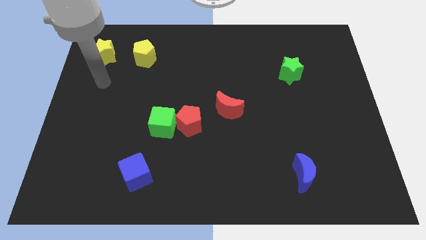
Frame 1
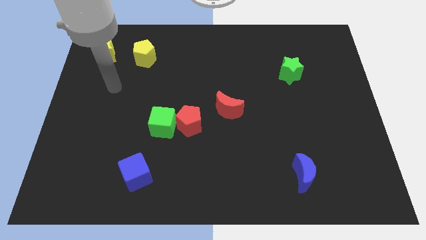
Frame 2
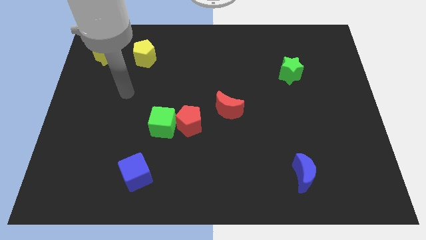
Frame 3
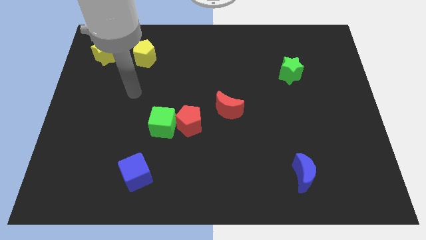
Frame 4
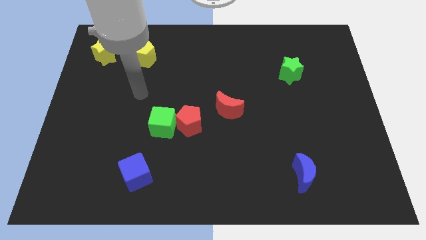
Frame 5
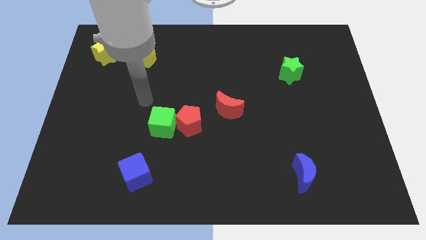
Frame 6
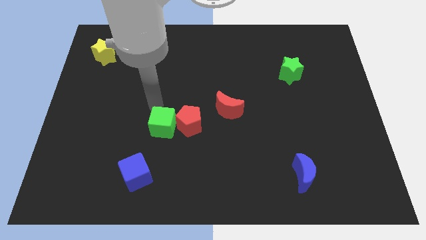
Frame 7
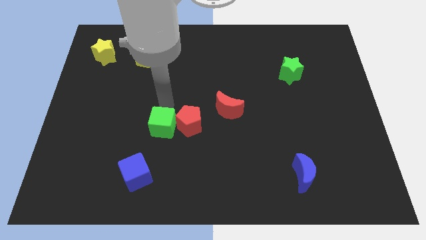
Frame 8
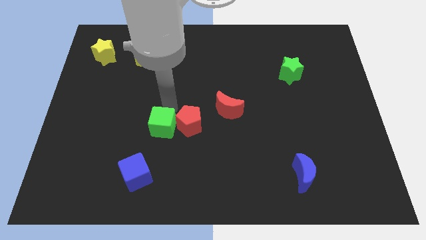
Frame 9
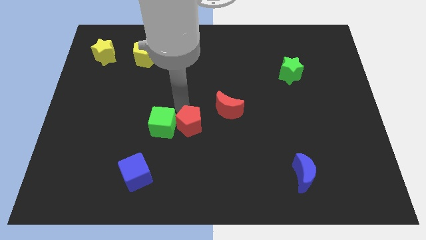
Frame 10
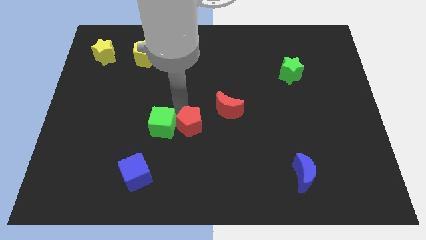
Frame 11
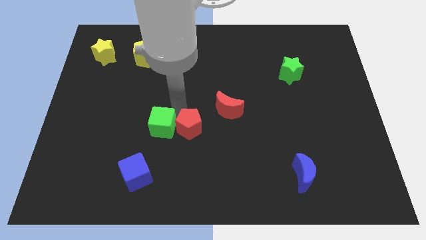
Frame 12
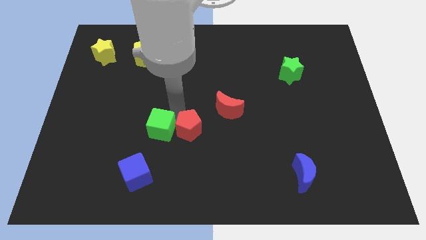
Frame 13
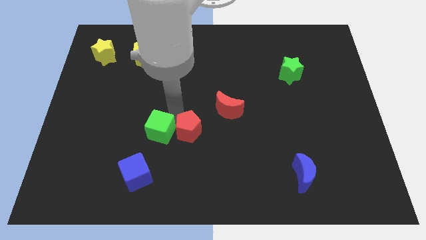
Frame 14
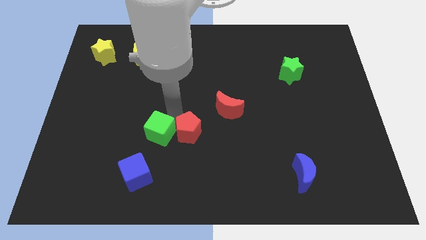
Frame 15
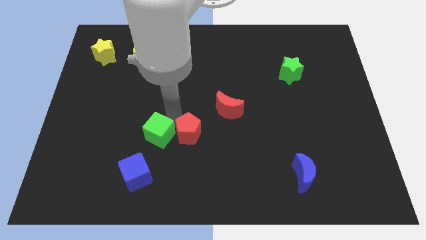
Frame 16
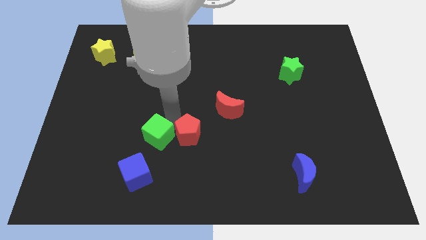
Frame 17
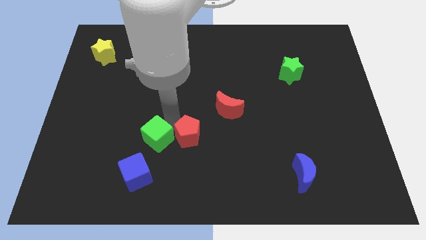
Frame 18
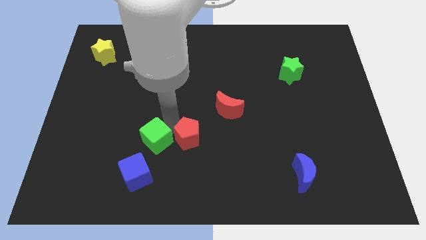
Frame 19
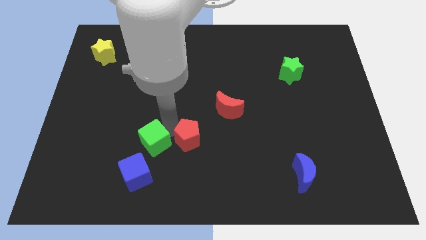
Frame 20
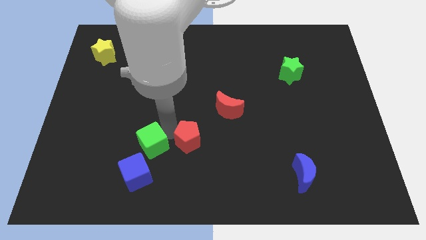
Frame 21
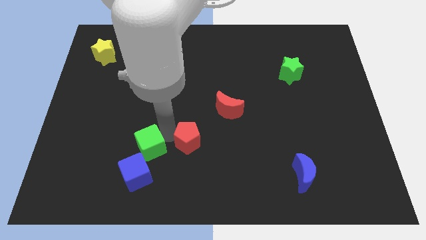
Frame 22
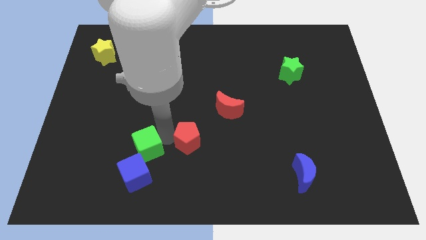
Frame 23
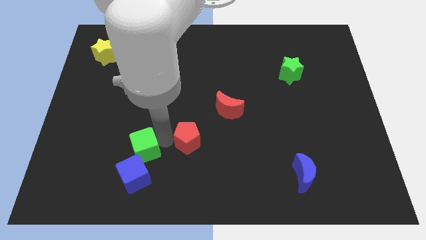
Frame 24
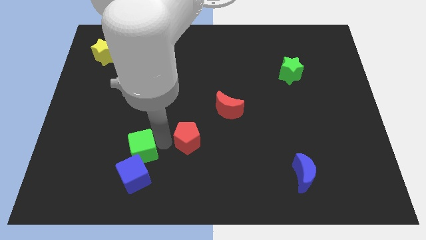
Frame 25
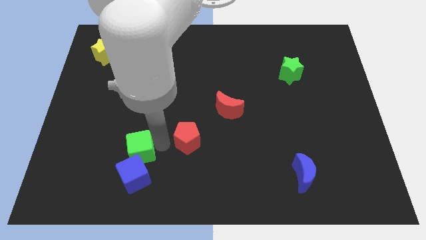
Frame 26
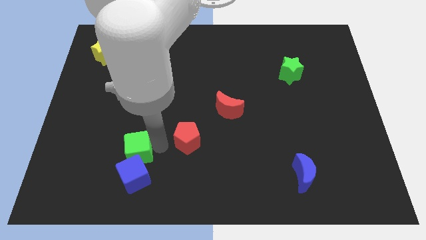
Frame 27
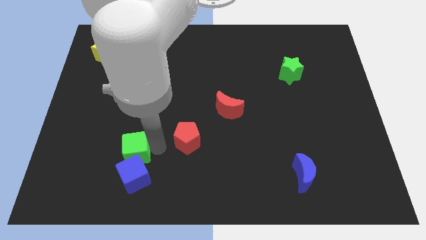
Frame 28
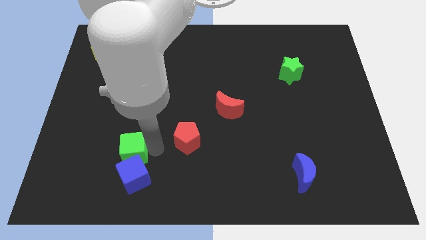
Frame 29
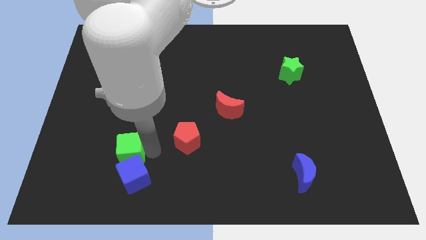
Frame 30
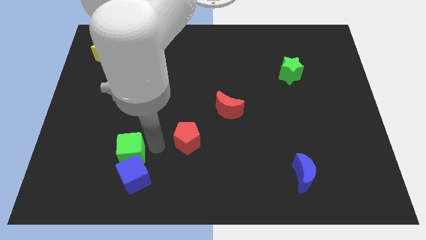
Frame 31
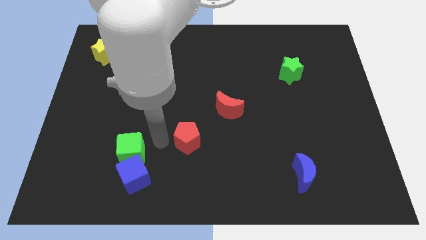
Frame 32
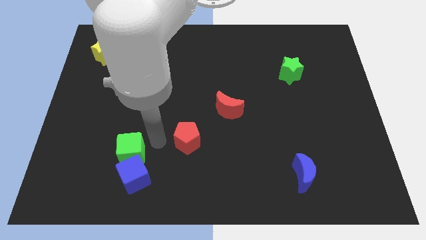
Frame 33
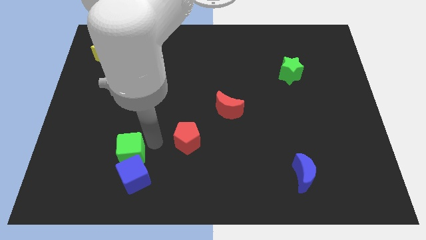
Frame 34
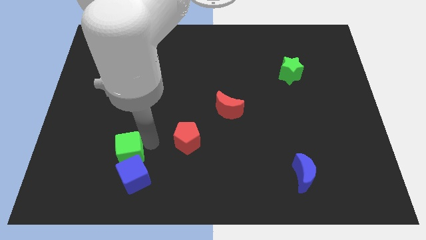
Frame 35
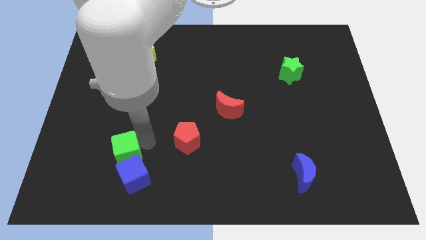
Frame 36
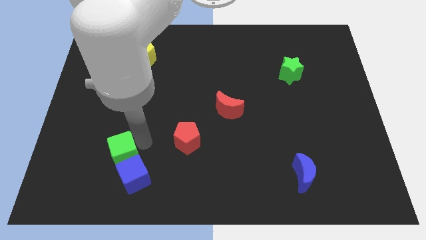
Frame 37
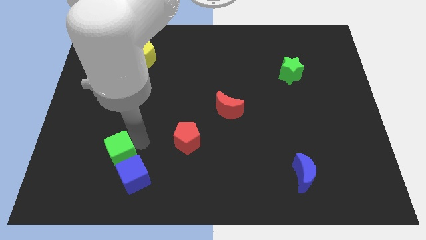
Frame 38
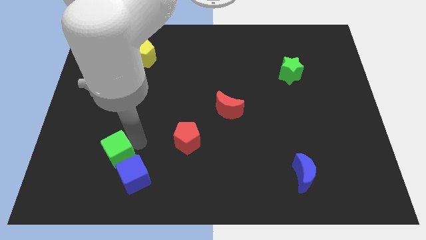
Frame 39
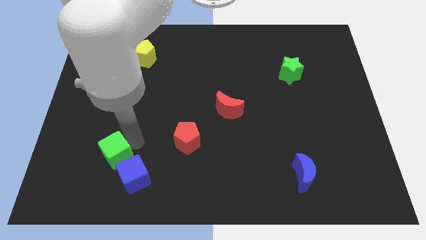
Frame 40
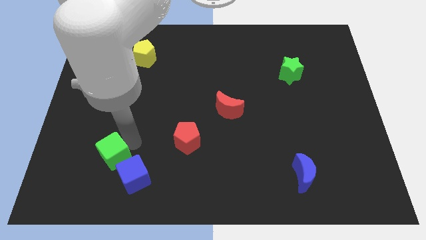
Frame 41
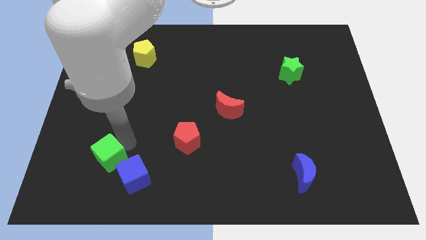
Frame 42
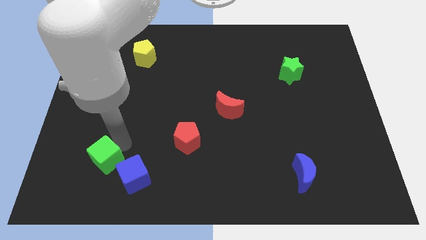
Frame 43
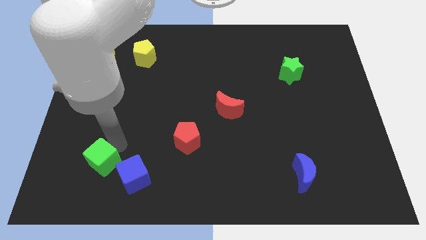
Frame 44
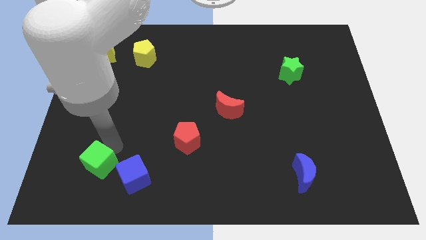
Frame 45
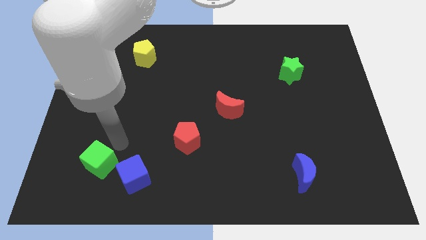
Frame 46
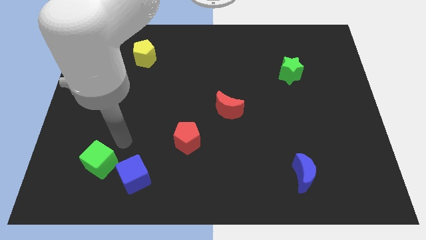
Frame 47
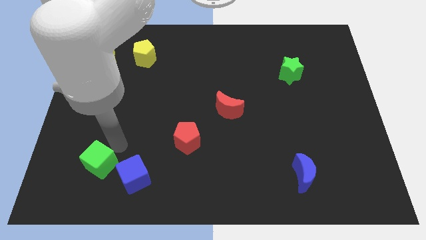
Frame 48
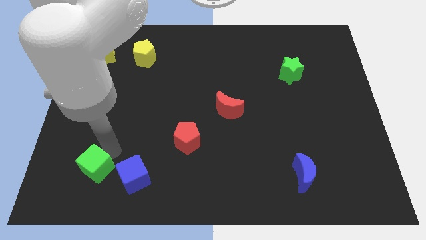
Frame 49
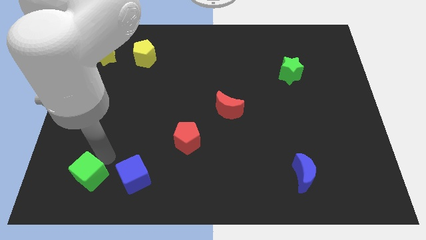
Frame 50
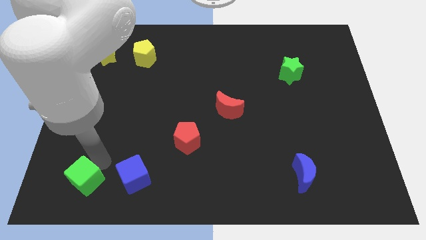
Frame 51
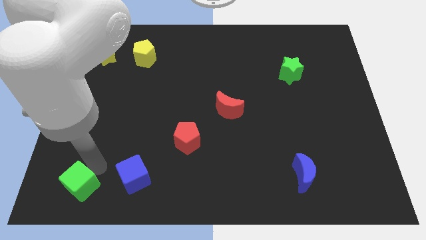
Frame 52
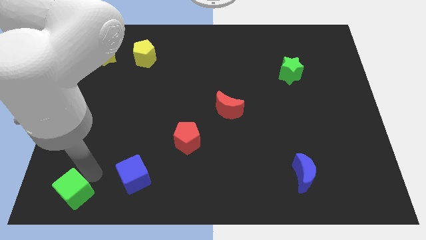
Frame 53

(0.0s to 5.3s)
move the green cube to the bottom left of the board
